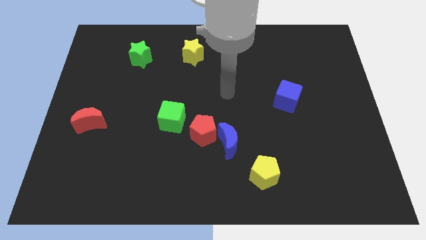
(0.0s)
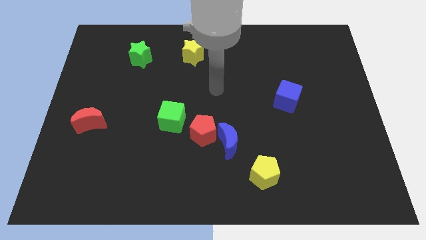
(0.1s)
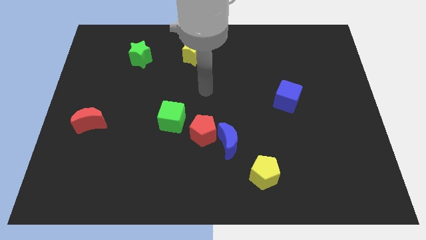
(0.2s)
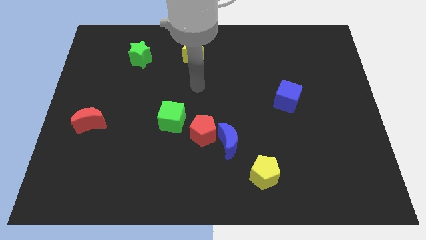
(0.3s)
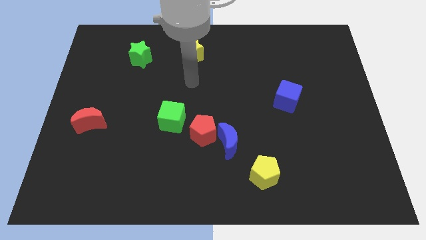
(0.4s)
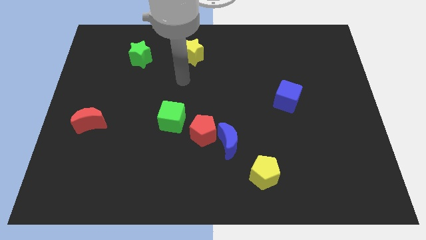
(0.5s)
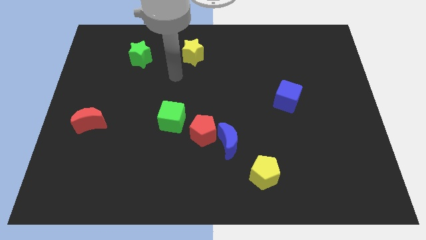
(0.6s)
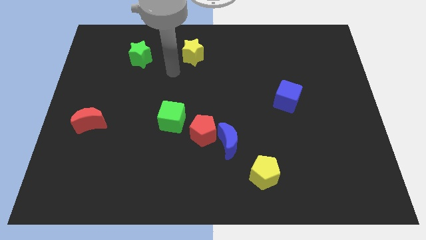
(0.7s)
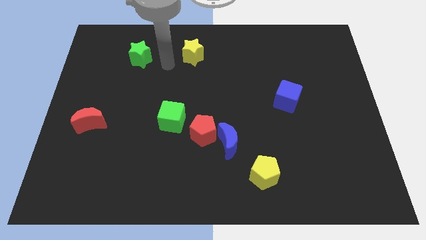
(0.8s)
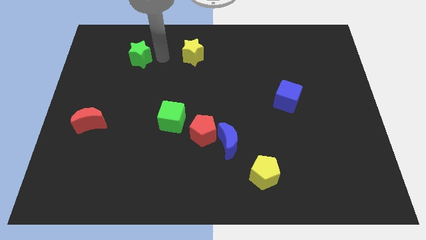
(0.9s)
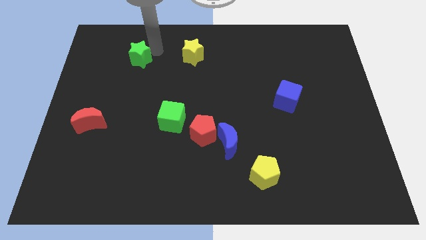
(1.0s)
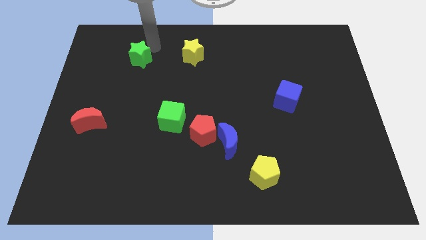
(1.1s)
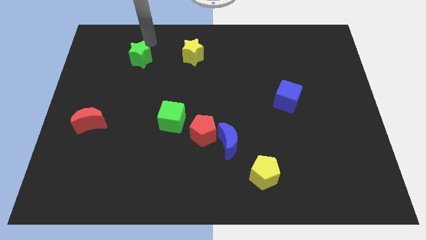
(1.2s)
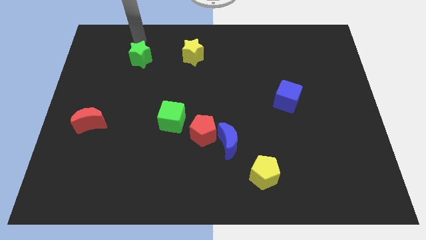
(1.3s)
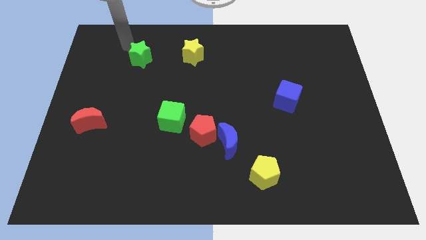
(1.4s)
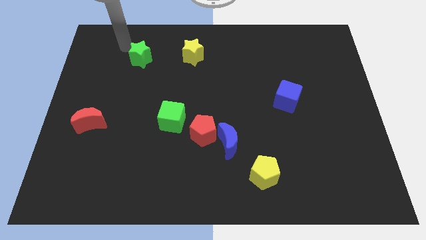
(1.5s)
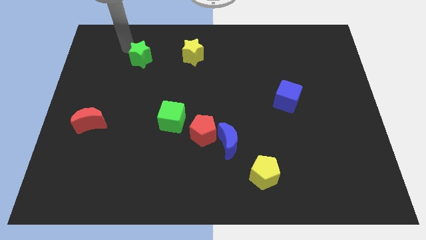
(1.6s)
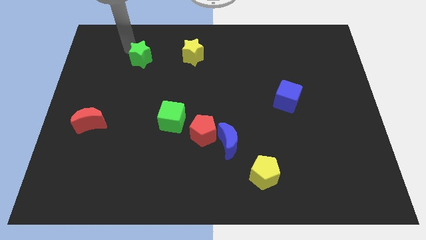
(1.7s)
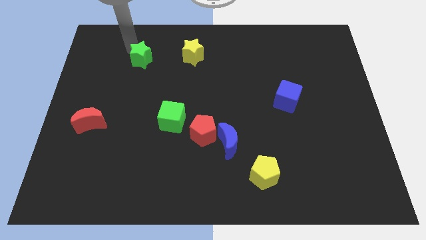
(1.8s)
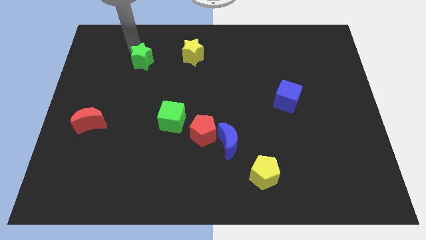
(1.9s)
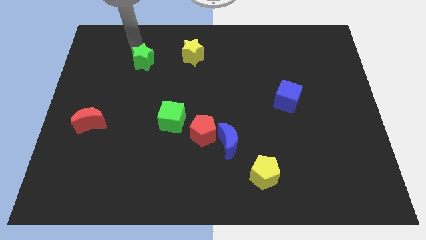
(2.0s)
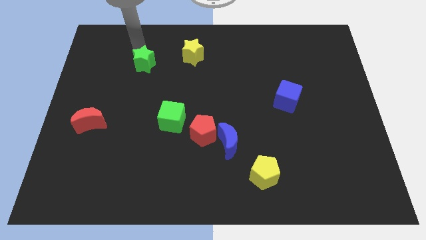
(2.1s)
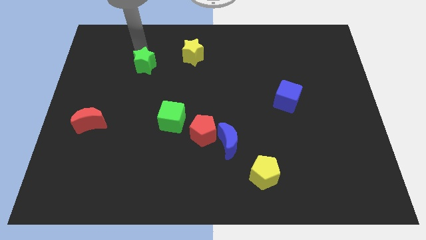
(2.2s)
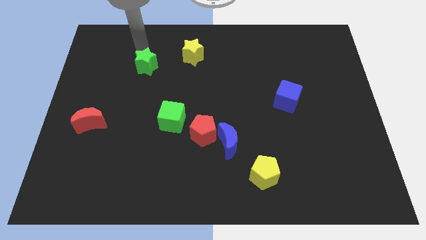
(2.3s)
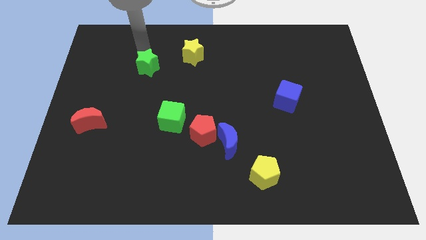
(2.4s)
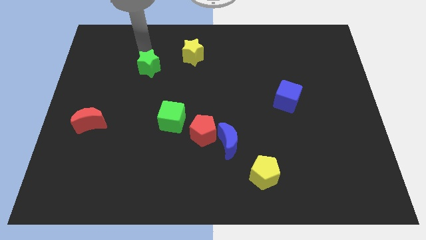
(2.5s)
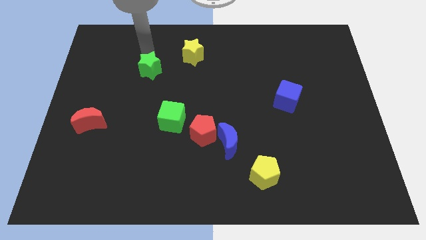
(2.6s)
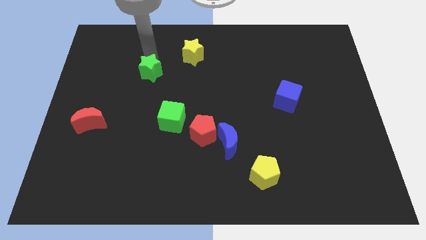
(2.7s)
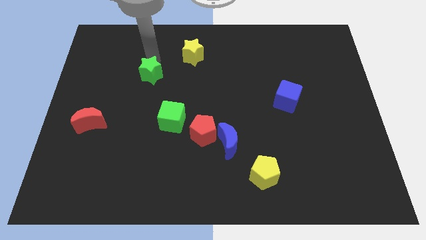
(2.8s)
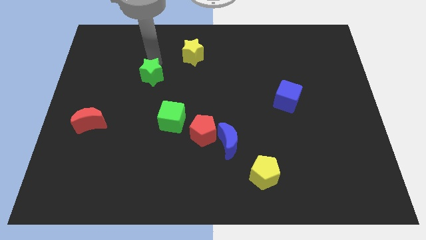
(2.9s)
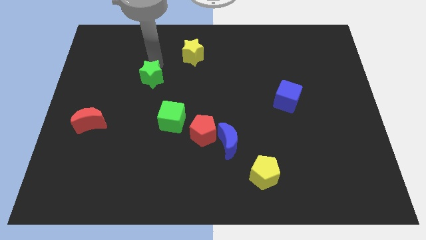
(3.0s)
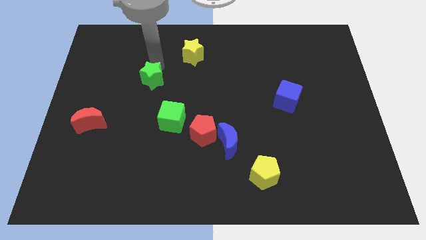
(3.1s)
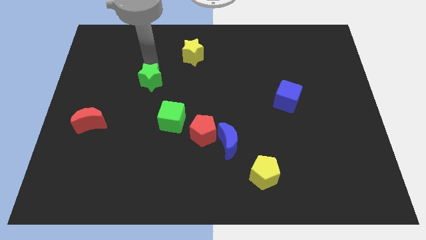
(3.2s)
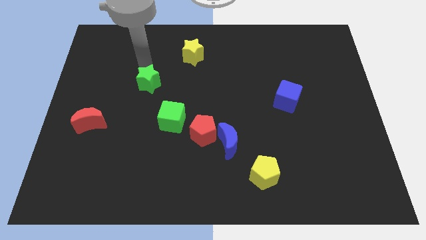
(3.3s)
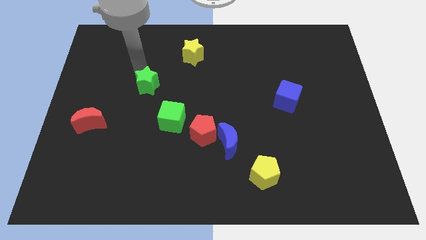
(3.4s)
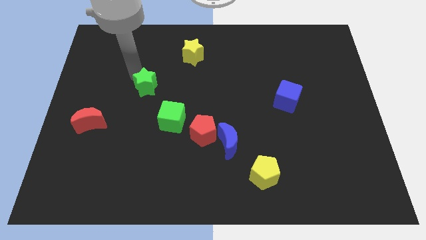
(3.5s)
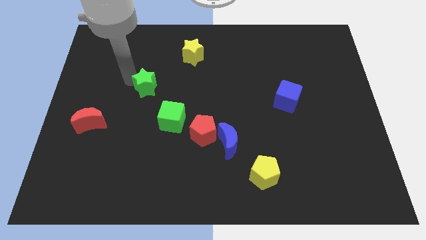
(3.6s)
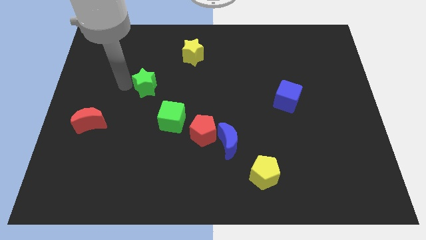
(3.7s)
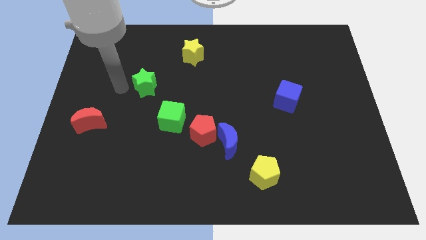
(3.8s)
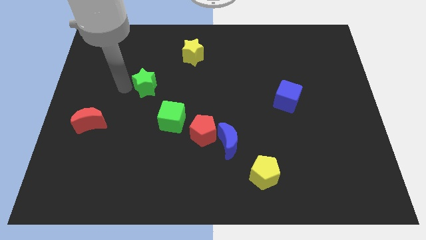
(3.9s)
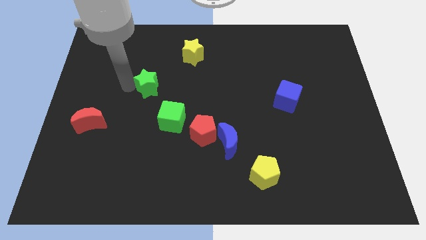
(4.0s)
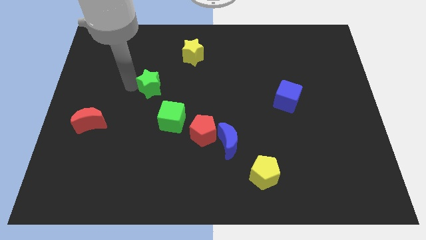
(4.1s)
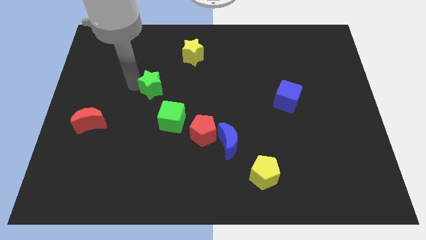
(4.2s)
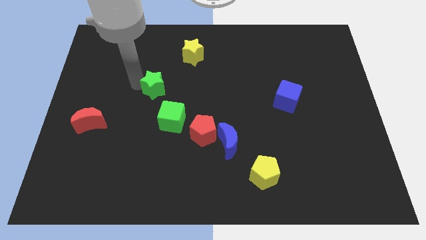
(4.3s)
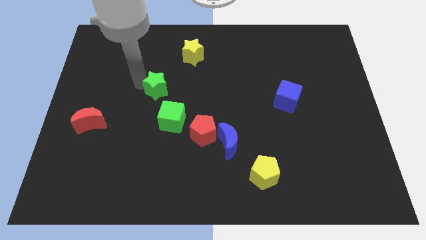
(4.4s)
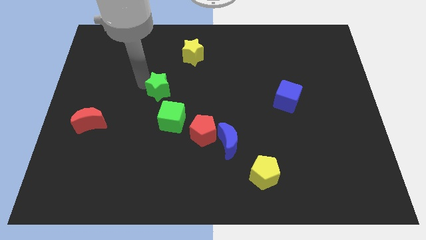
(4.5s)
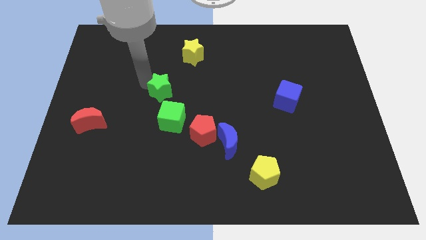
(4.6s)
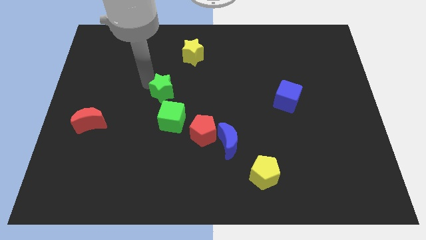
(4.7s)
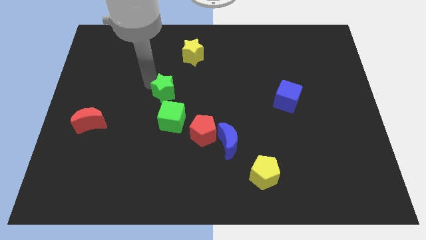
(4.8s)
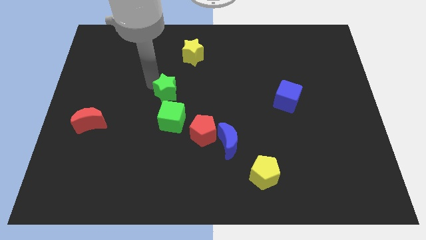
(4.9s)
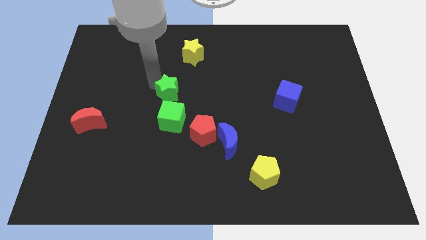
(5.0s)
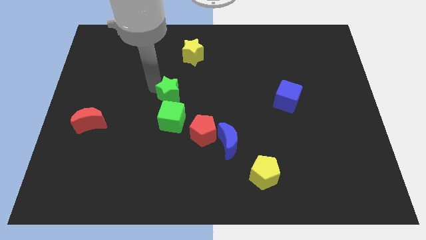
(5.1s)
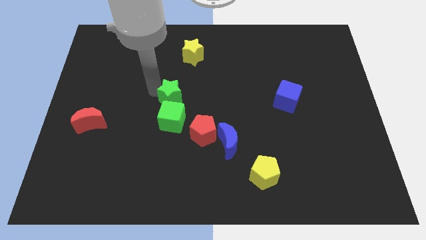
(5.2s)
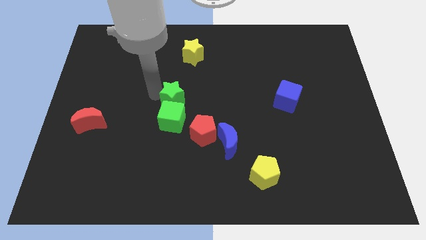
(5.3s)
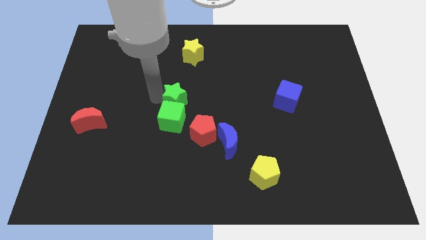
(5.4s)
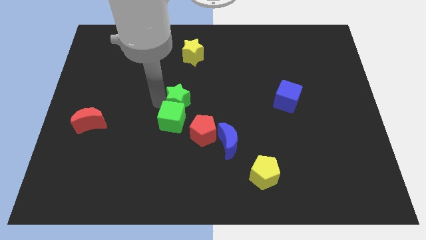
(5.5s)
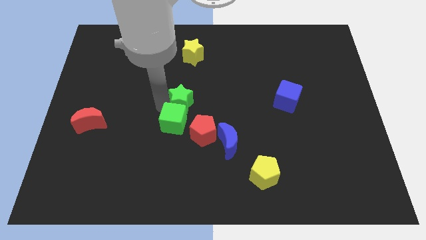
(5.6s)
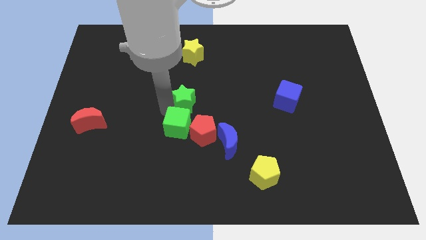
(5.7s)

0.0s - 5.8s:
slide the green star to the top side of the red pentagon

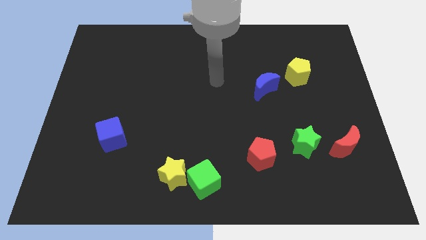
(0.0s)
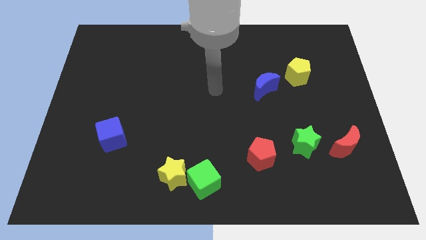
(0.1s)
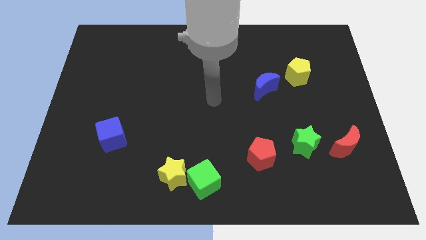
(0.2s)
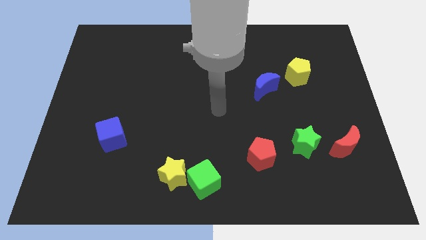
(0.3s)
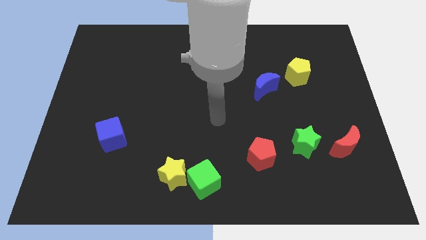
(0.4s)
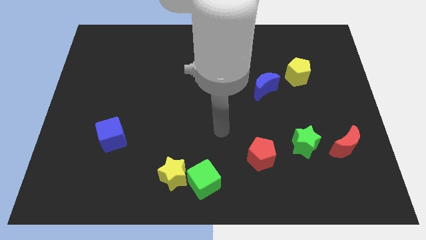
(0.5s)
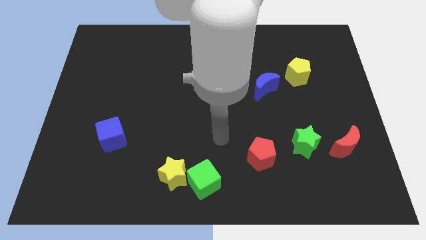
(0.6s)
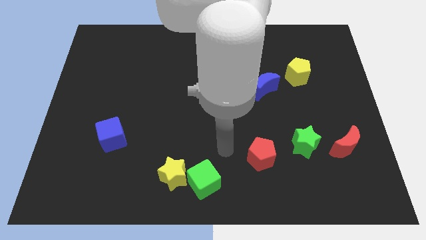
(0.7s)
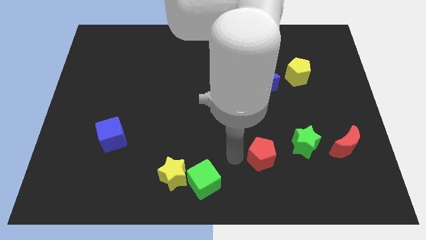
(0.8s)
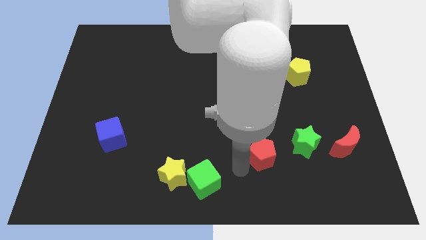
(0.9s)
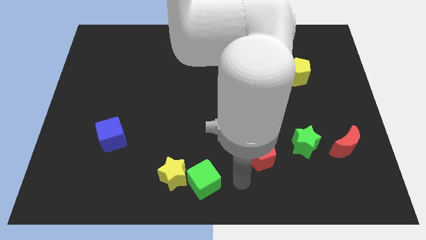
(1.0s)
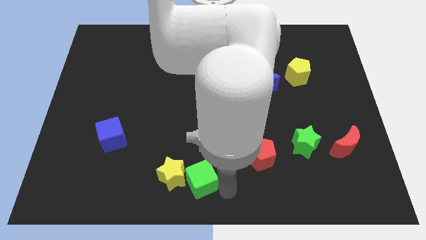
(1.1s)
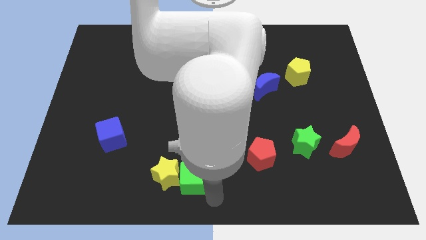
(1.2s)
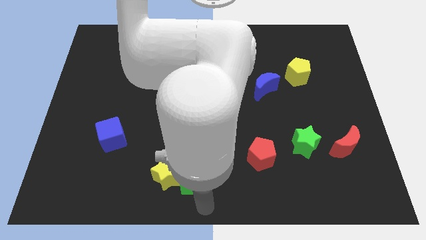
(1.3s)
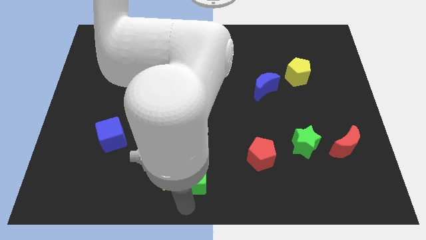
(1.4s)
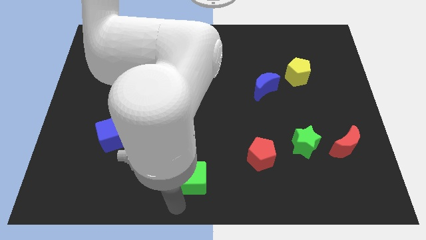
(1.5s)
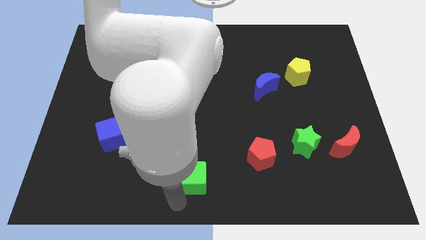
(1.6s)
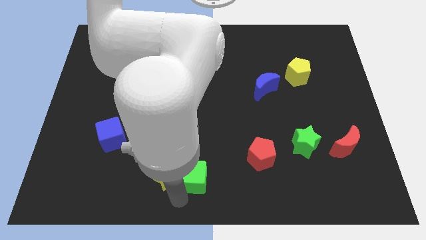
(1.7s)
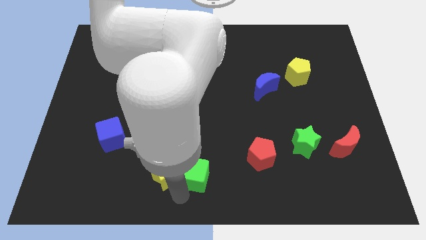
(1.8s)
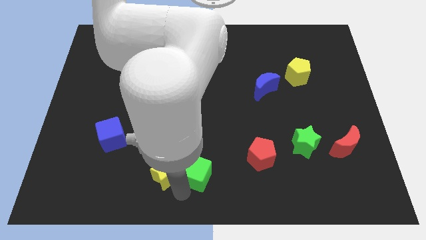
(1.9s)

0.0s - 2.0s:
put the green cube just left of the red pentagon
